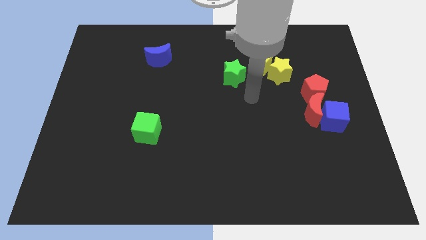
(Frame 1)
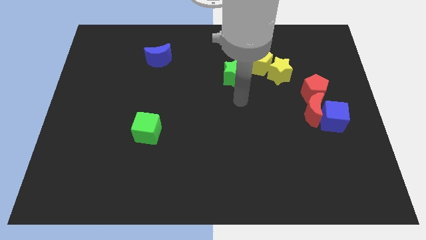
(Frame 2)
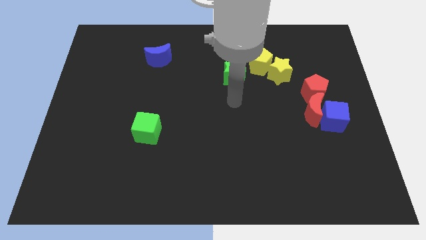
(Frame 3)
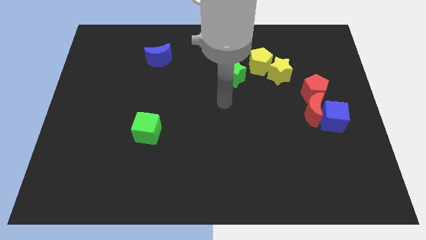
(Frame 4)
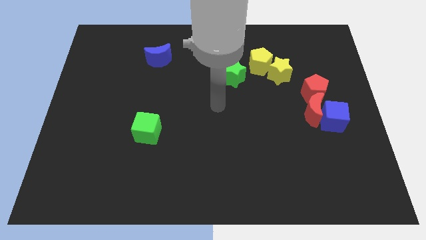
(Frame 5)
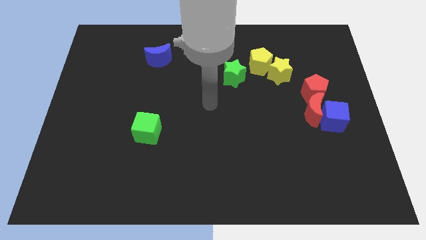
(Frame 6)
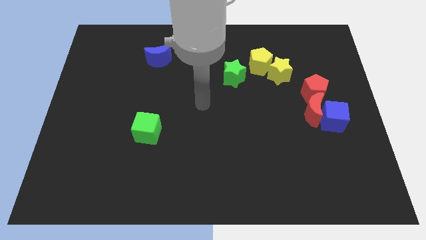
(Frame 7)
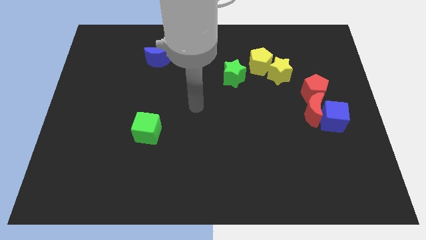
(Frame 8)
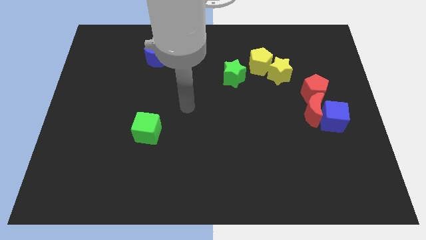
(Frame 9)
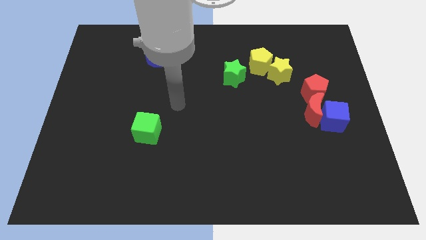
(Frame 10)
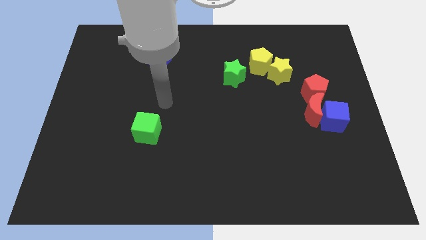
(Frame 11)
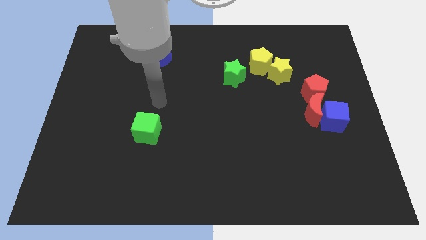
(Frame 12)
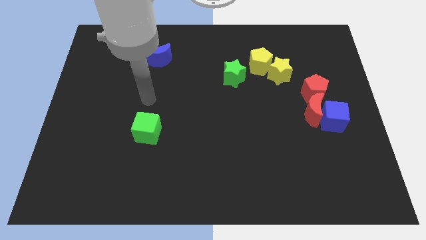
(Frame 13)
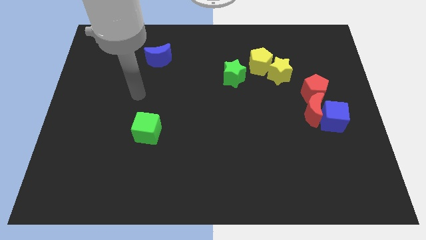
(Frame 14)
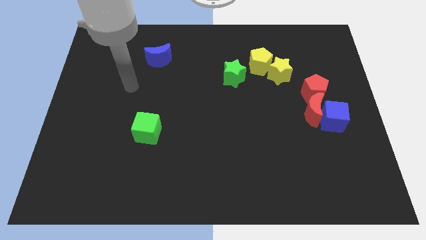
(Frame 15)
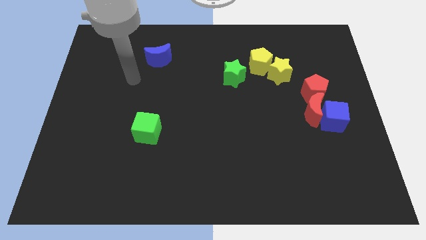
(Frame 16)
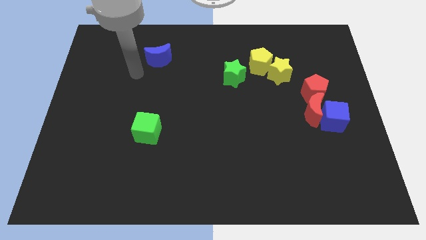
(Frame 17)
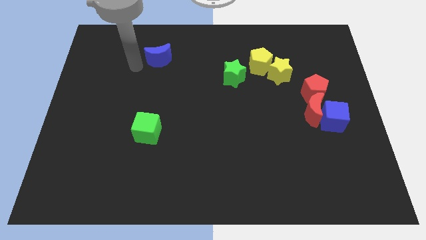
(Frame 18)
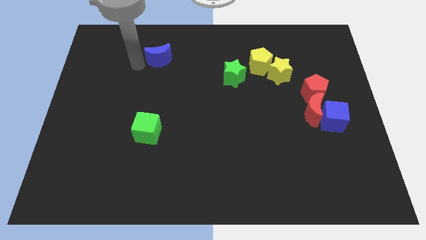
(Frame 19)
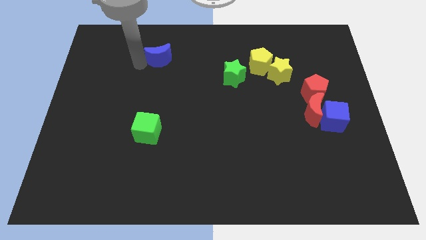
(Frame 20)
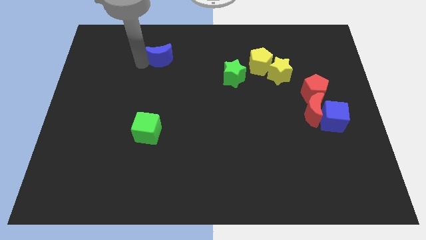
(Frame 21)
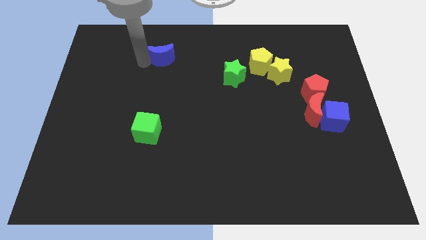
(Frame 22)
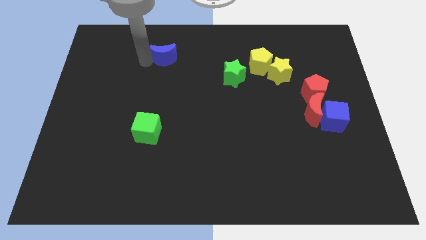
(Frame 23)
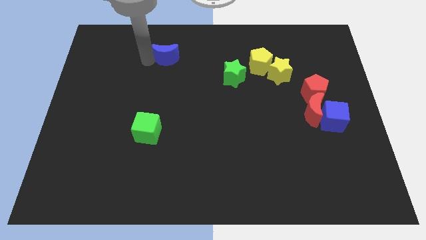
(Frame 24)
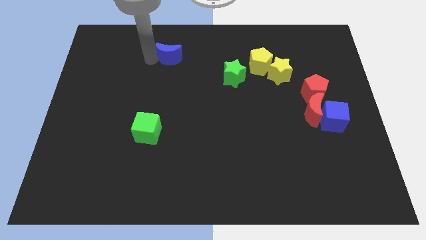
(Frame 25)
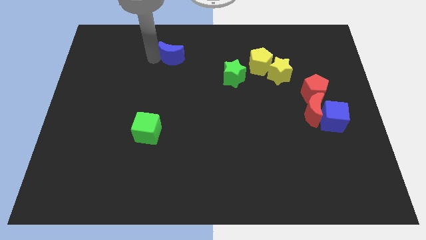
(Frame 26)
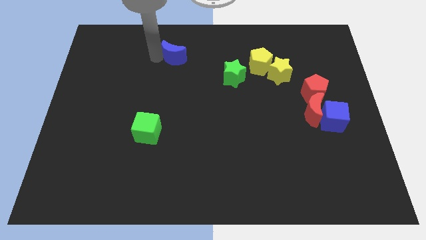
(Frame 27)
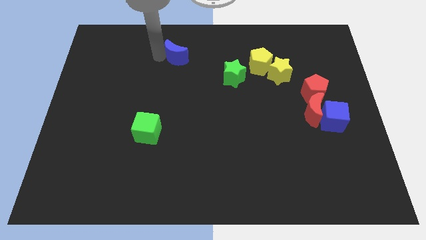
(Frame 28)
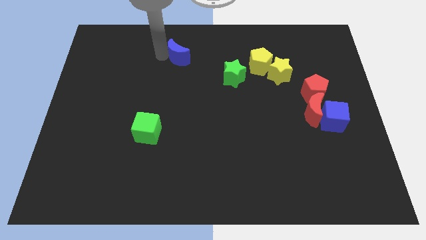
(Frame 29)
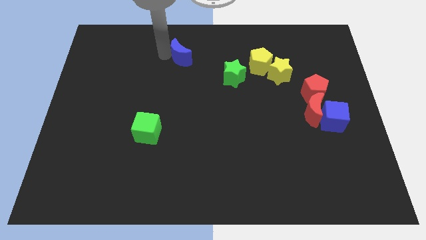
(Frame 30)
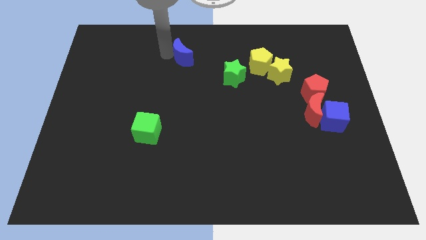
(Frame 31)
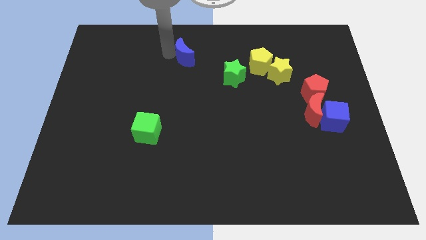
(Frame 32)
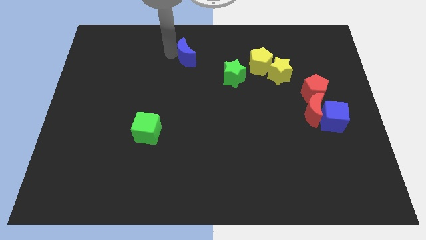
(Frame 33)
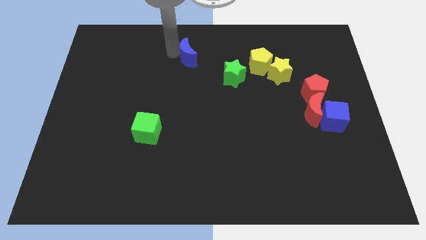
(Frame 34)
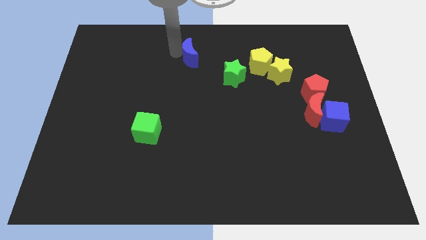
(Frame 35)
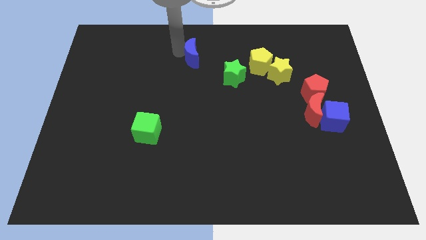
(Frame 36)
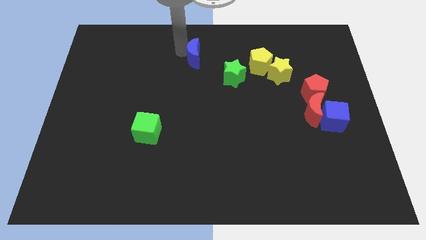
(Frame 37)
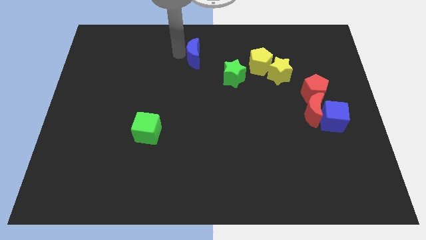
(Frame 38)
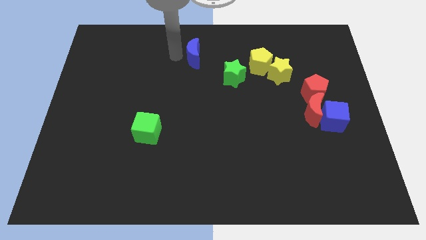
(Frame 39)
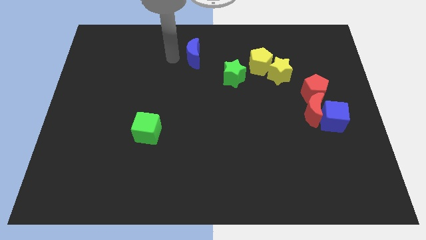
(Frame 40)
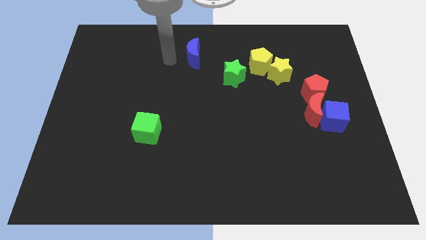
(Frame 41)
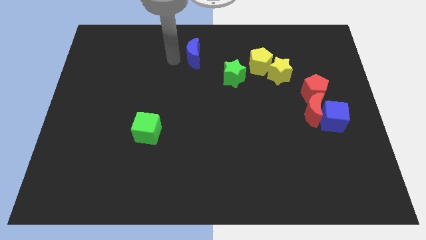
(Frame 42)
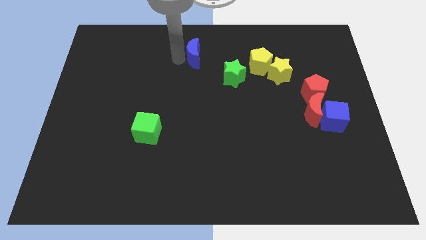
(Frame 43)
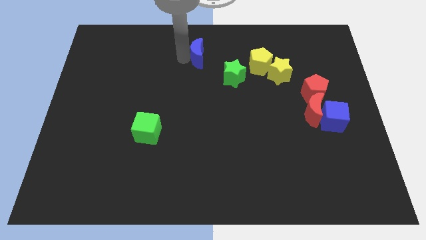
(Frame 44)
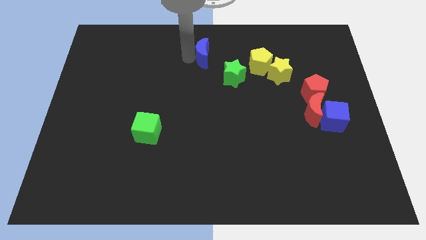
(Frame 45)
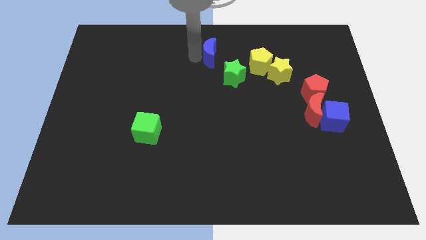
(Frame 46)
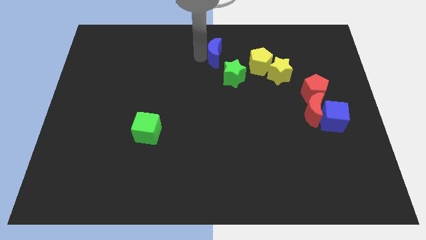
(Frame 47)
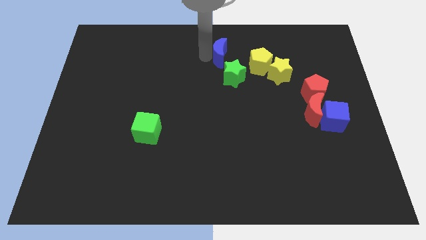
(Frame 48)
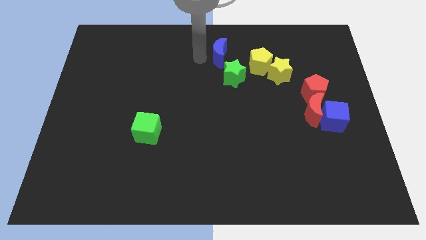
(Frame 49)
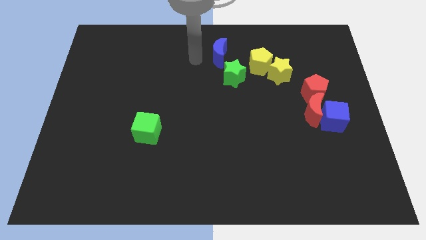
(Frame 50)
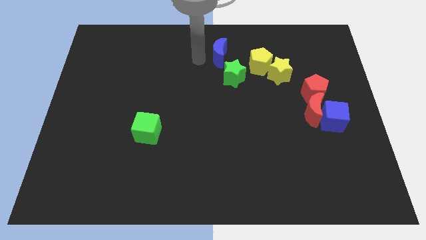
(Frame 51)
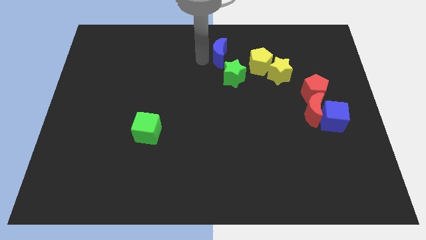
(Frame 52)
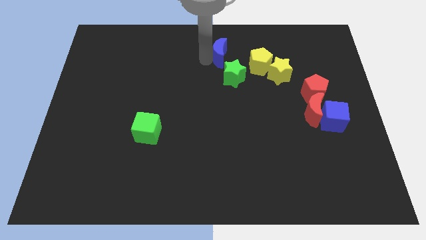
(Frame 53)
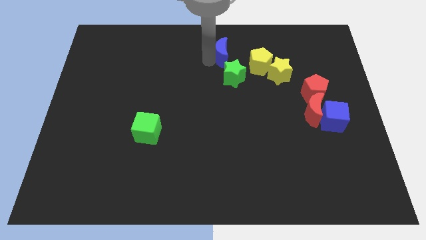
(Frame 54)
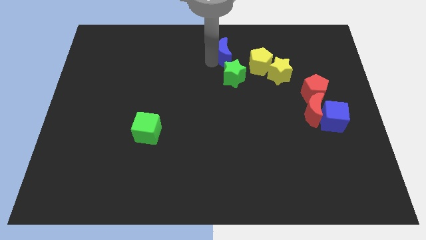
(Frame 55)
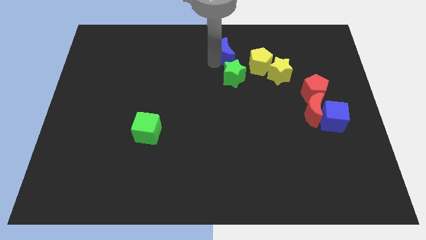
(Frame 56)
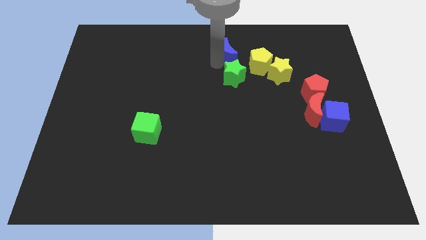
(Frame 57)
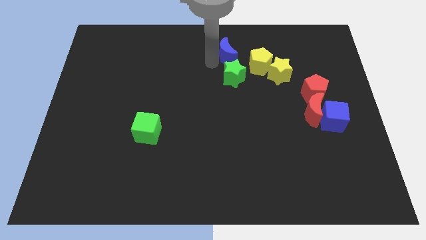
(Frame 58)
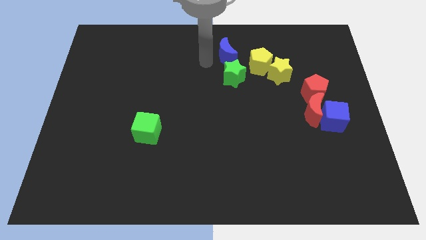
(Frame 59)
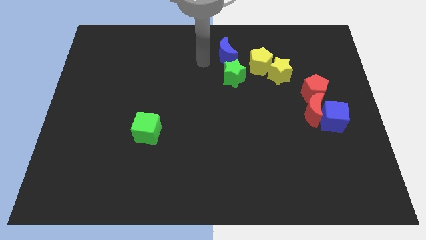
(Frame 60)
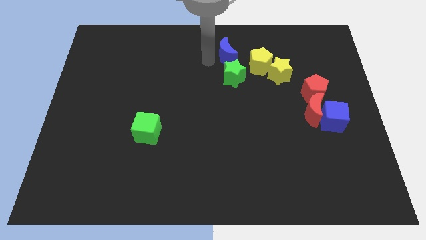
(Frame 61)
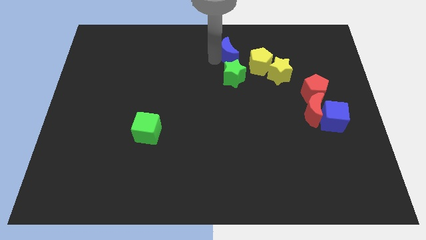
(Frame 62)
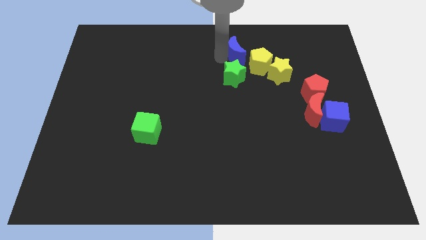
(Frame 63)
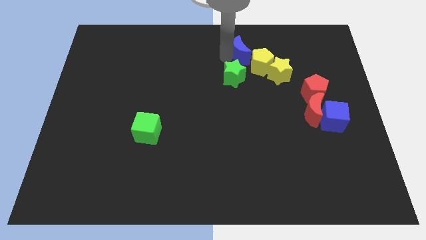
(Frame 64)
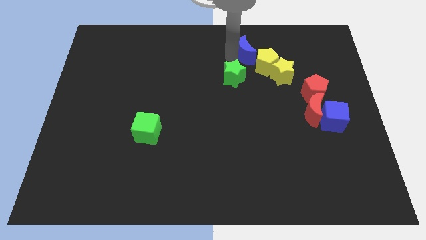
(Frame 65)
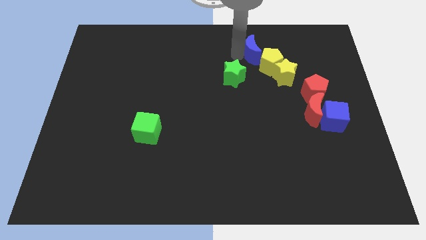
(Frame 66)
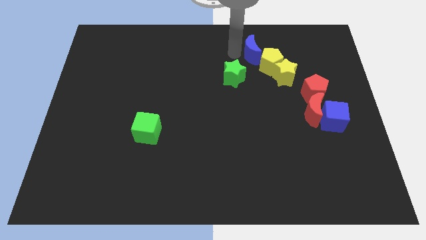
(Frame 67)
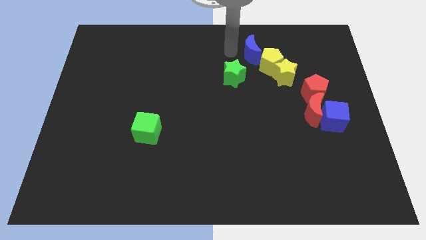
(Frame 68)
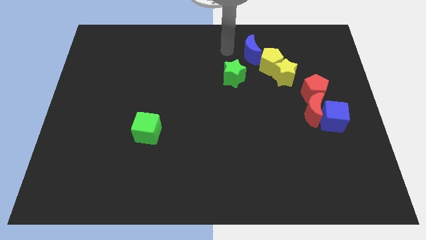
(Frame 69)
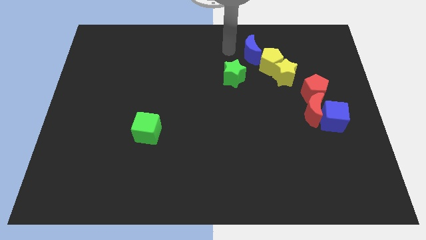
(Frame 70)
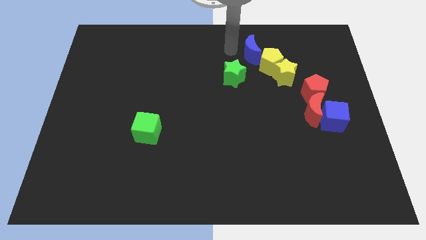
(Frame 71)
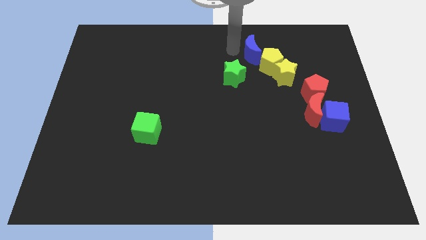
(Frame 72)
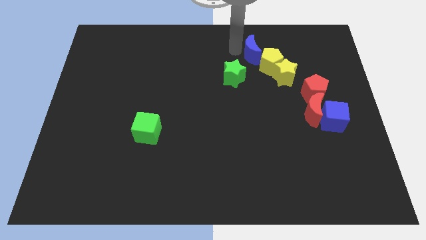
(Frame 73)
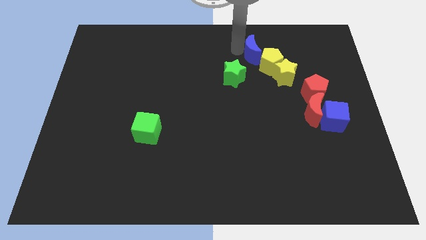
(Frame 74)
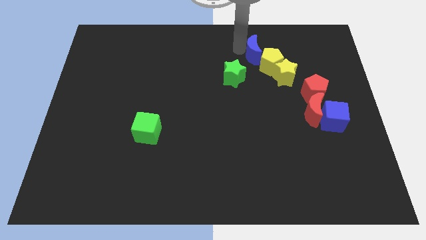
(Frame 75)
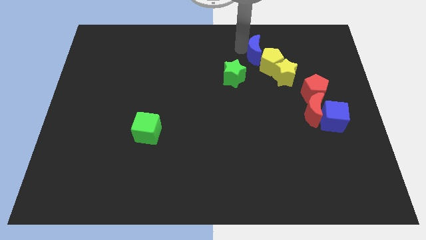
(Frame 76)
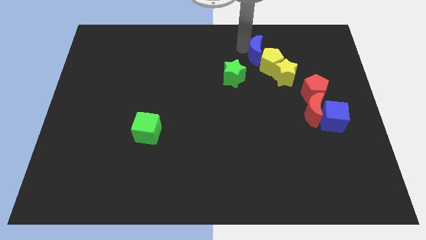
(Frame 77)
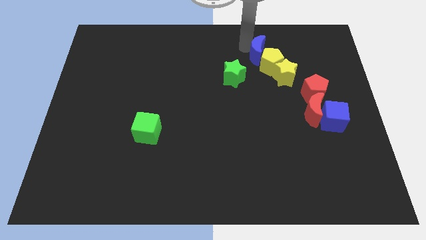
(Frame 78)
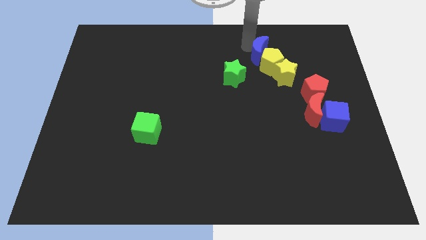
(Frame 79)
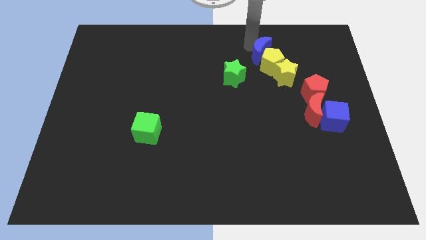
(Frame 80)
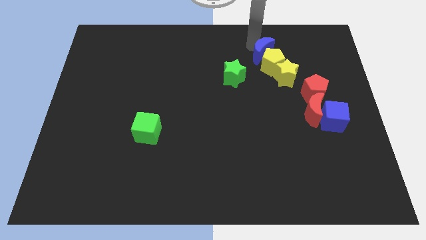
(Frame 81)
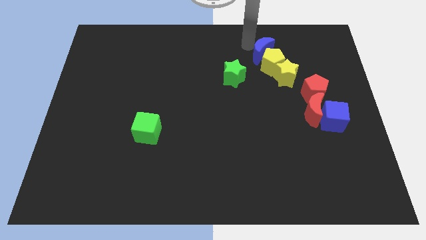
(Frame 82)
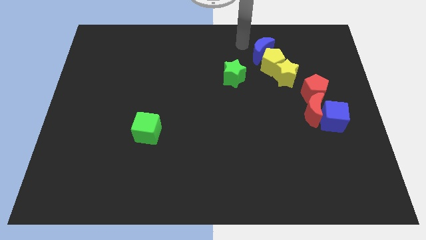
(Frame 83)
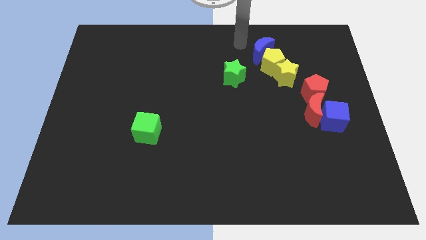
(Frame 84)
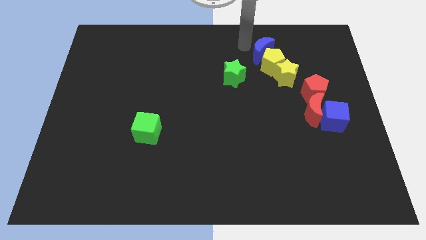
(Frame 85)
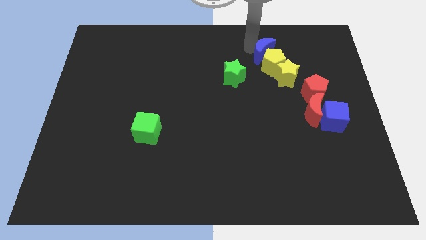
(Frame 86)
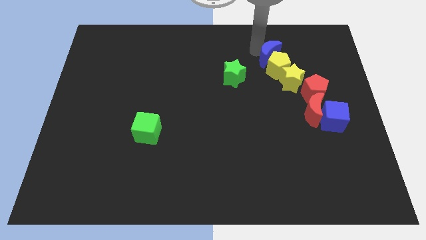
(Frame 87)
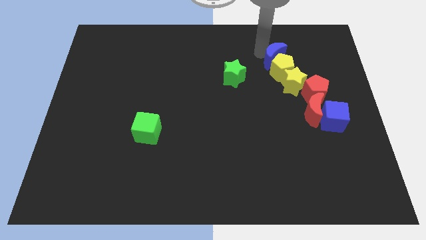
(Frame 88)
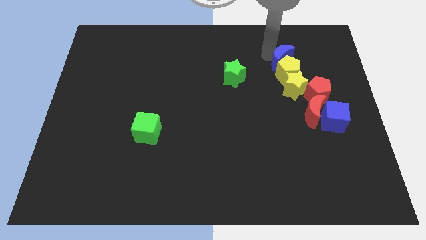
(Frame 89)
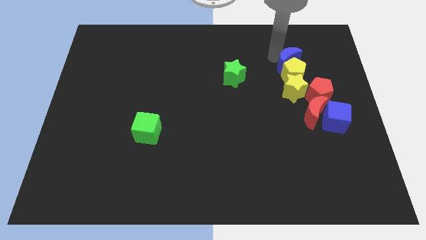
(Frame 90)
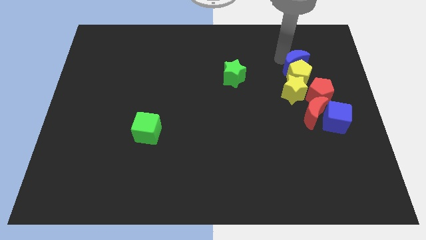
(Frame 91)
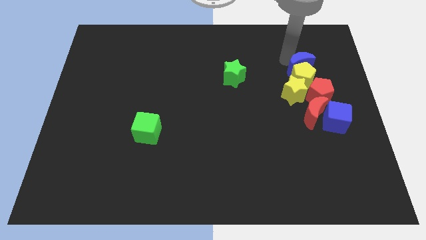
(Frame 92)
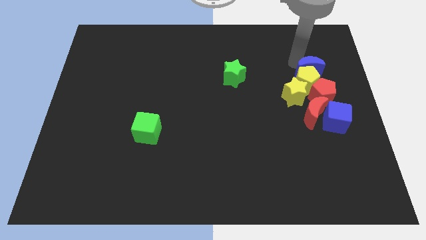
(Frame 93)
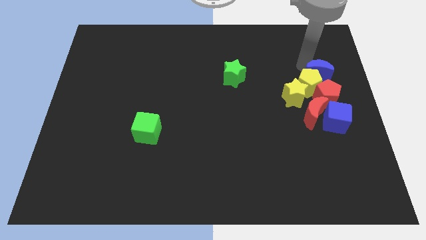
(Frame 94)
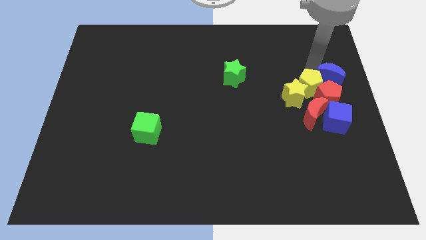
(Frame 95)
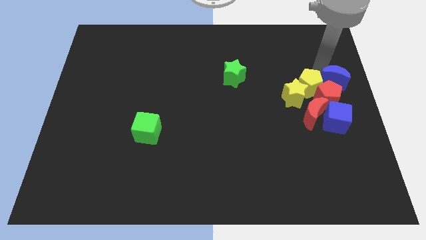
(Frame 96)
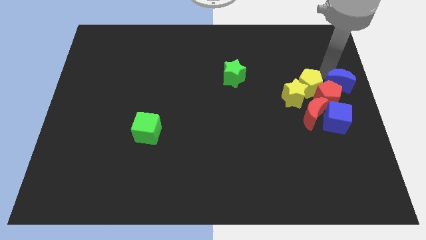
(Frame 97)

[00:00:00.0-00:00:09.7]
put the blue moon to the red pentagon
